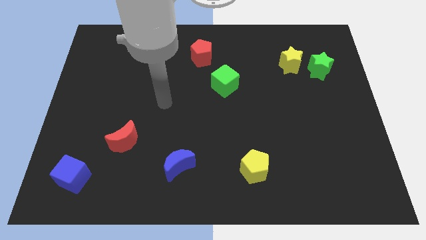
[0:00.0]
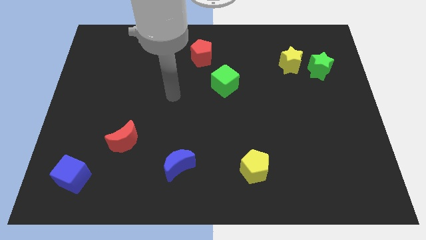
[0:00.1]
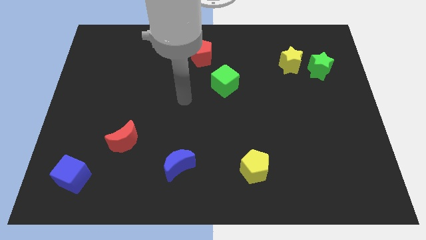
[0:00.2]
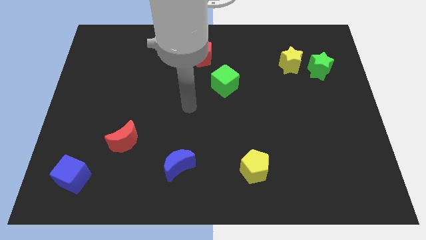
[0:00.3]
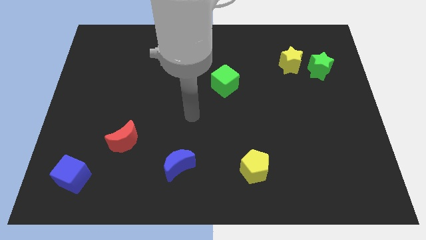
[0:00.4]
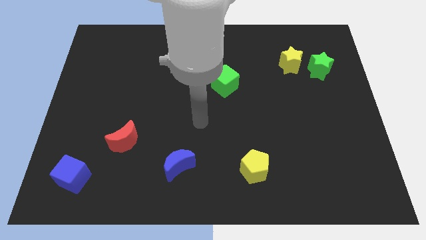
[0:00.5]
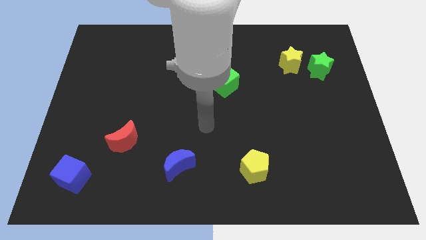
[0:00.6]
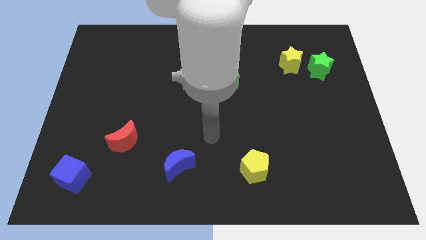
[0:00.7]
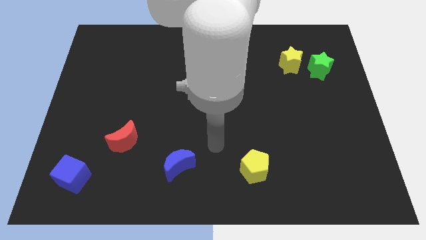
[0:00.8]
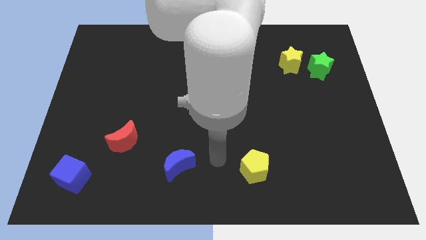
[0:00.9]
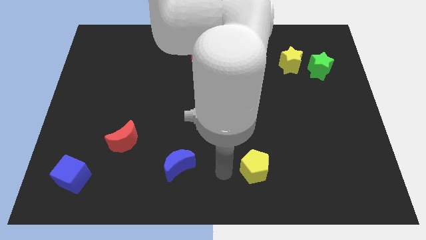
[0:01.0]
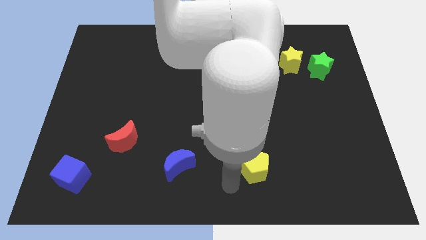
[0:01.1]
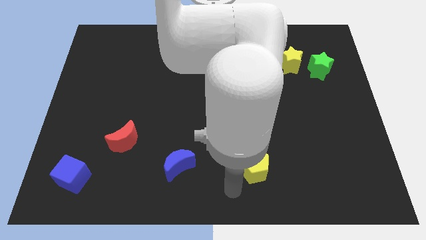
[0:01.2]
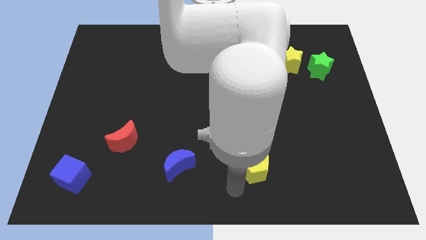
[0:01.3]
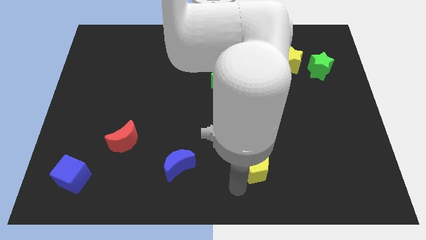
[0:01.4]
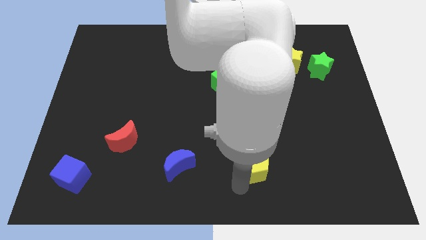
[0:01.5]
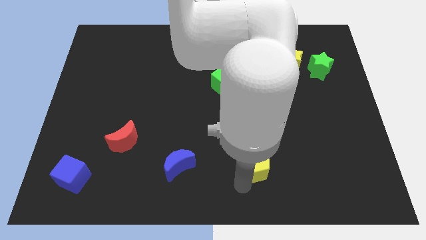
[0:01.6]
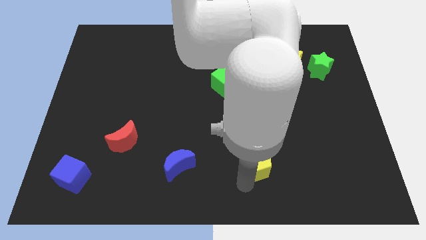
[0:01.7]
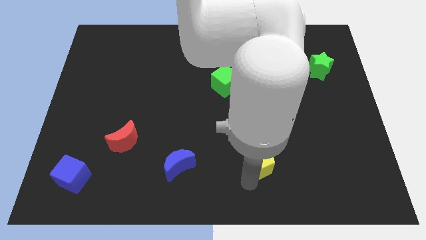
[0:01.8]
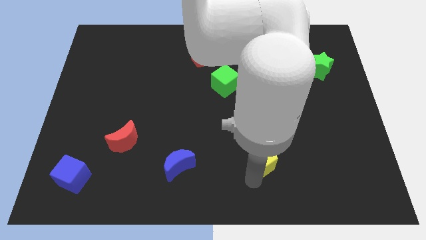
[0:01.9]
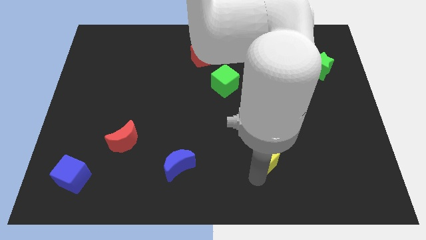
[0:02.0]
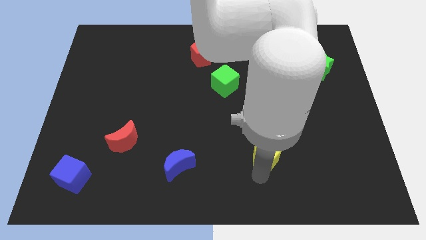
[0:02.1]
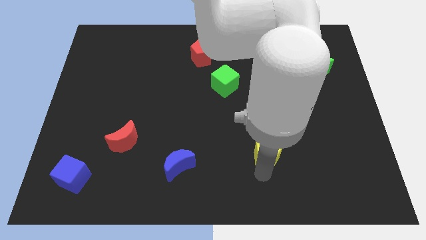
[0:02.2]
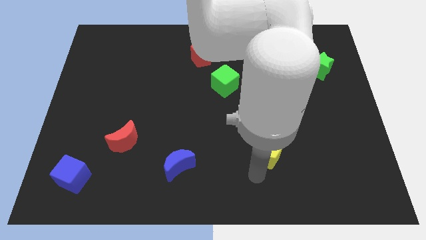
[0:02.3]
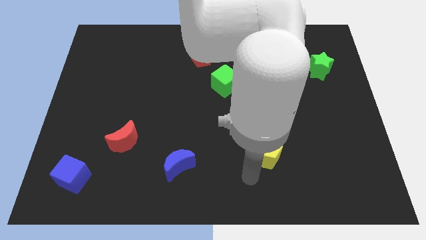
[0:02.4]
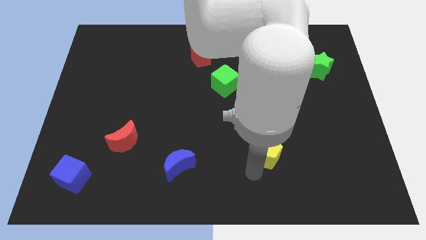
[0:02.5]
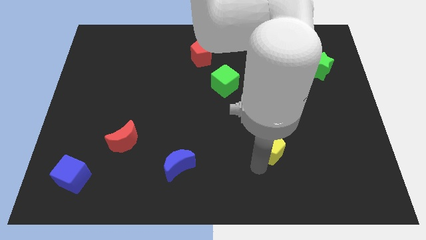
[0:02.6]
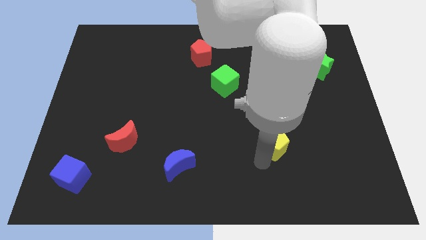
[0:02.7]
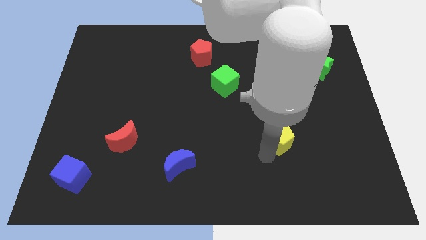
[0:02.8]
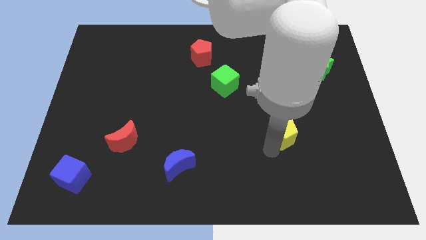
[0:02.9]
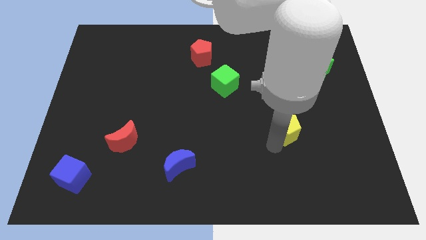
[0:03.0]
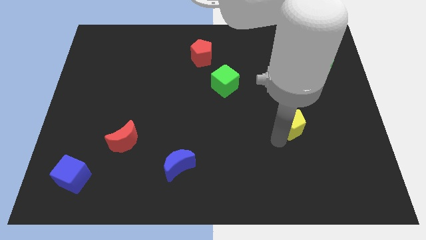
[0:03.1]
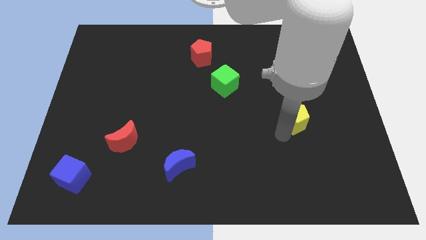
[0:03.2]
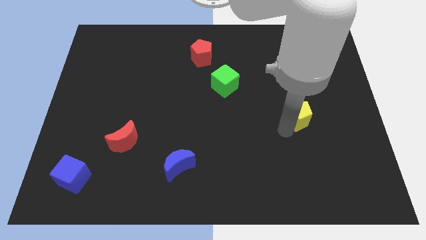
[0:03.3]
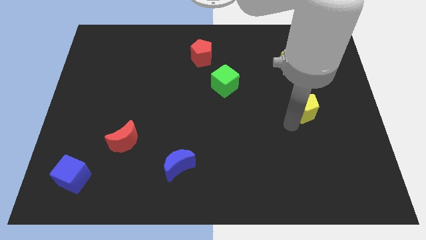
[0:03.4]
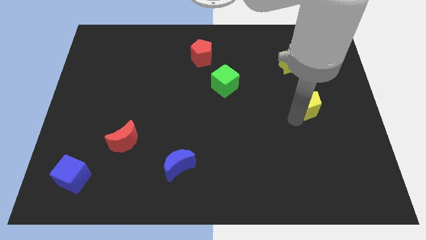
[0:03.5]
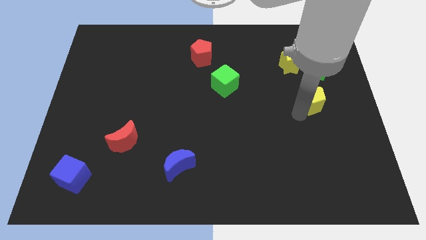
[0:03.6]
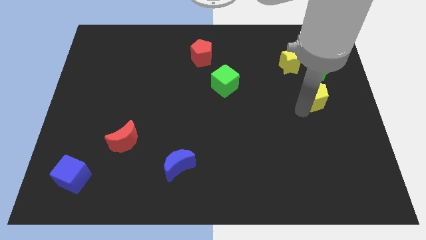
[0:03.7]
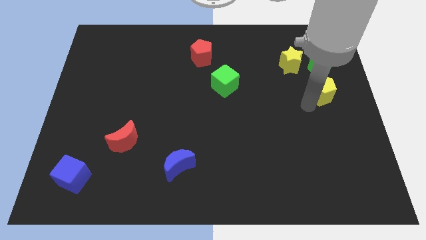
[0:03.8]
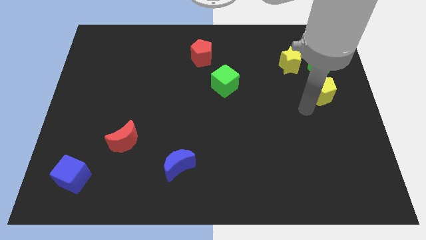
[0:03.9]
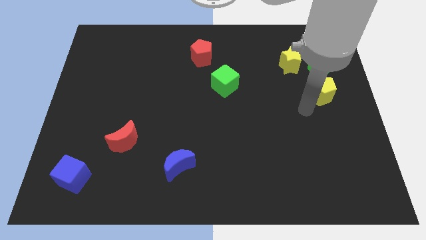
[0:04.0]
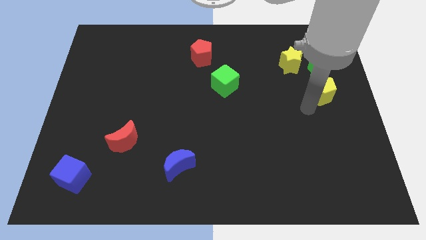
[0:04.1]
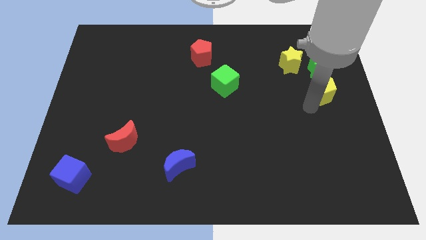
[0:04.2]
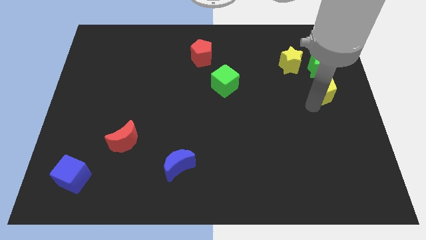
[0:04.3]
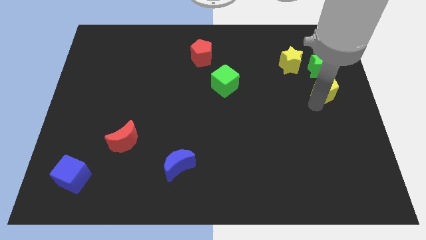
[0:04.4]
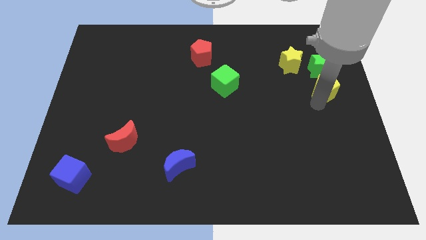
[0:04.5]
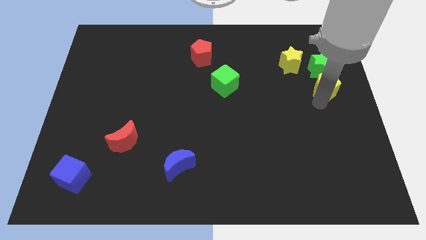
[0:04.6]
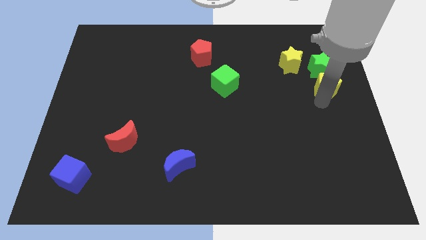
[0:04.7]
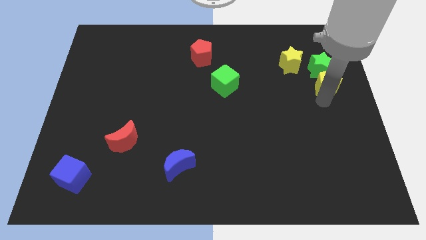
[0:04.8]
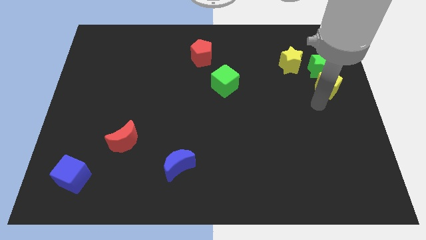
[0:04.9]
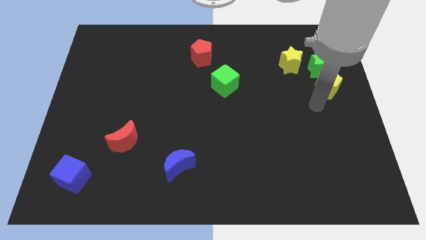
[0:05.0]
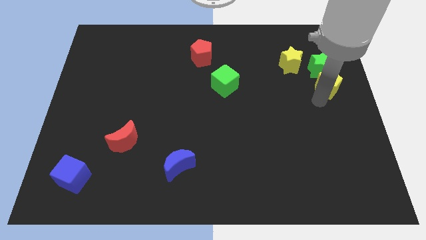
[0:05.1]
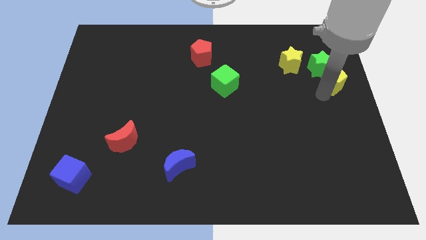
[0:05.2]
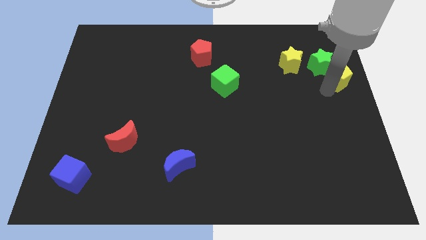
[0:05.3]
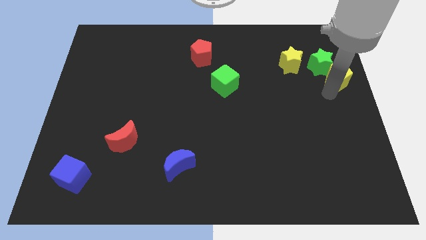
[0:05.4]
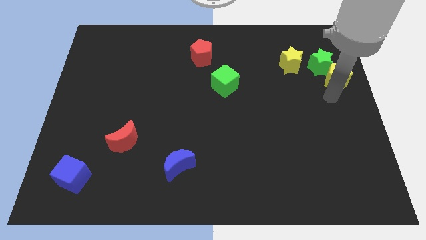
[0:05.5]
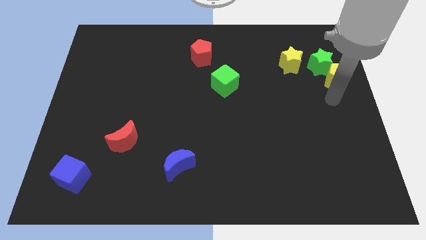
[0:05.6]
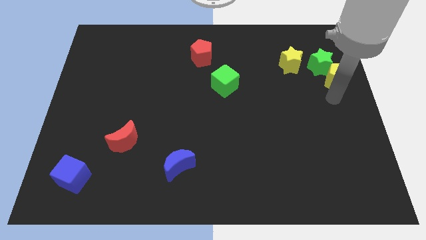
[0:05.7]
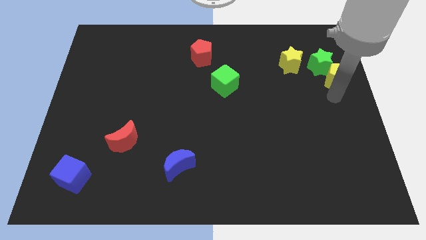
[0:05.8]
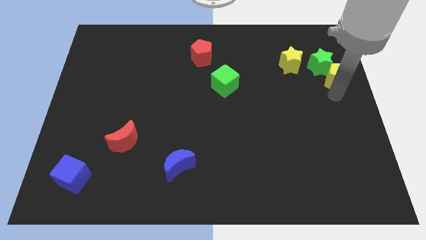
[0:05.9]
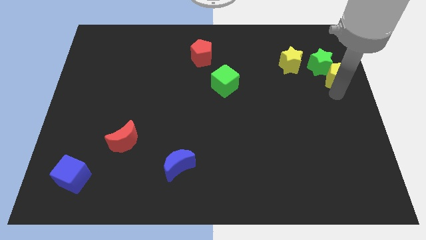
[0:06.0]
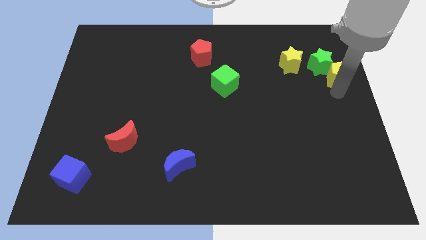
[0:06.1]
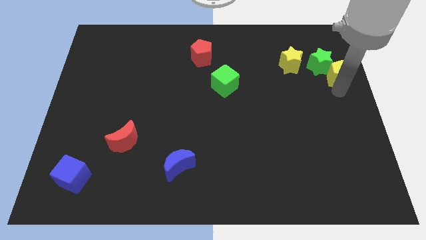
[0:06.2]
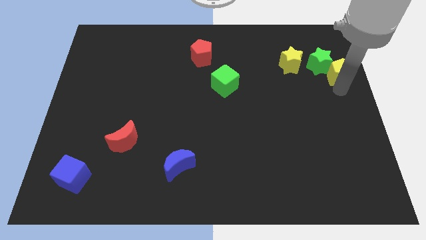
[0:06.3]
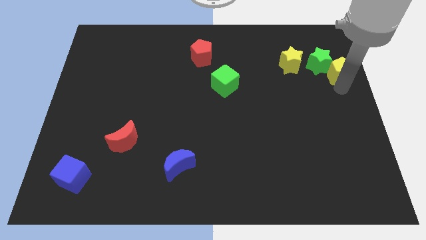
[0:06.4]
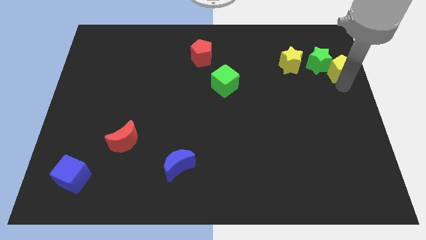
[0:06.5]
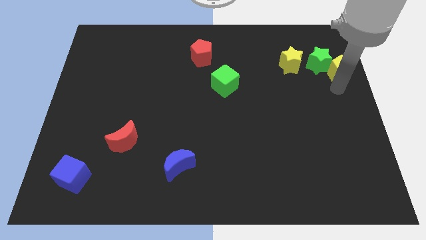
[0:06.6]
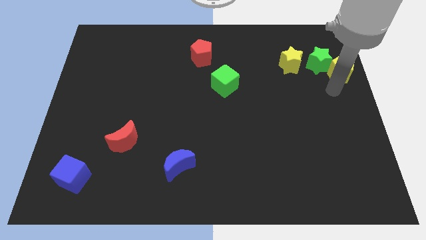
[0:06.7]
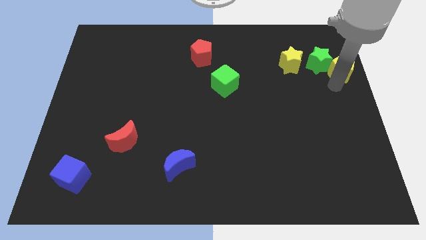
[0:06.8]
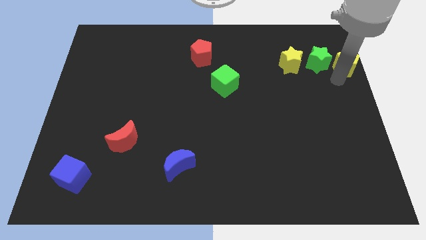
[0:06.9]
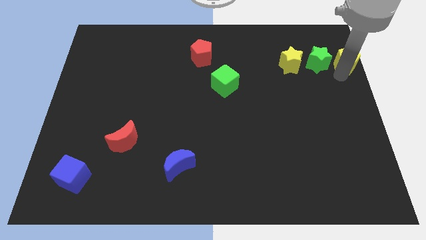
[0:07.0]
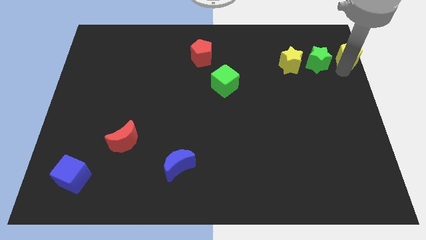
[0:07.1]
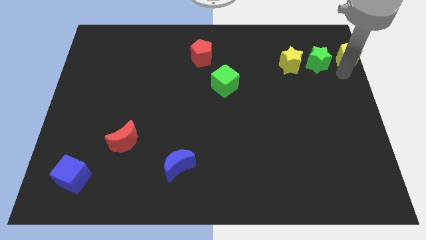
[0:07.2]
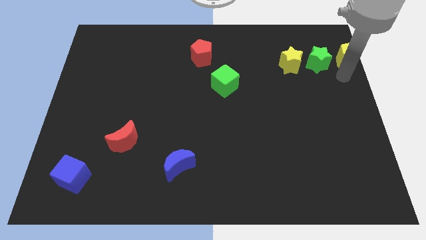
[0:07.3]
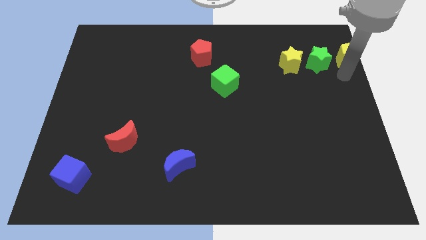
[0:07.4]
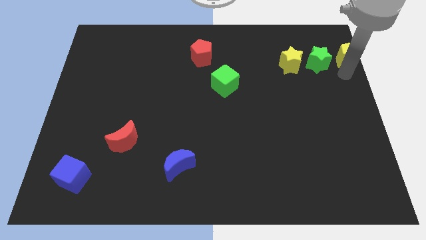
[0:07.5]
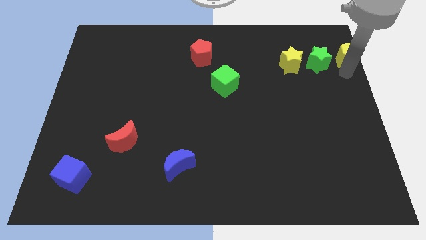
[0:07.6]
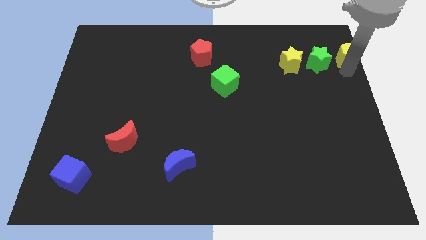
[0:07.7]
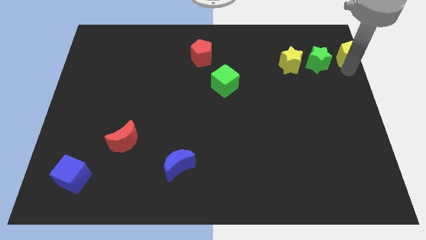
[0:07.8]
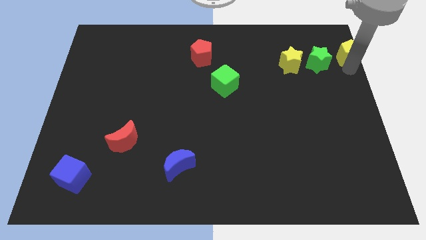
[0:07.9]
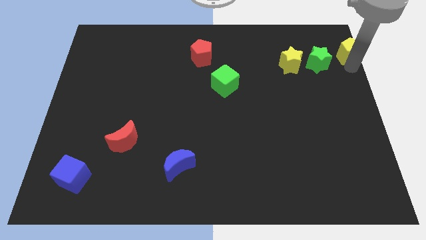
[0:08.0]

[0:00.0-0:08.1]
move the yellow pentagon to the top right of the board
